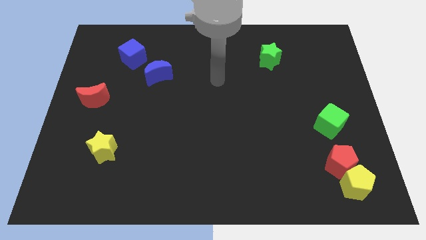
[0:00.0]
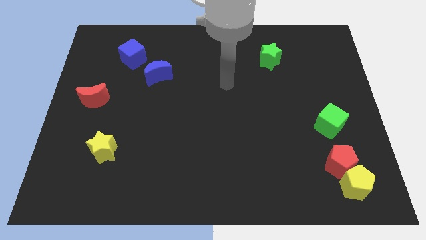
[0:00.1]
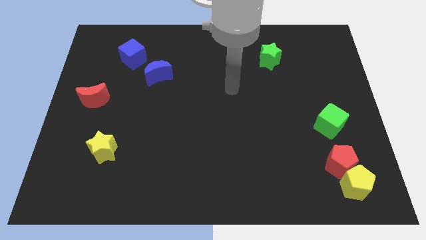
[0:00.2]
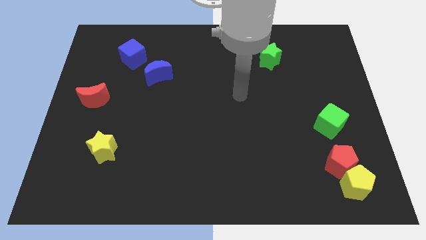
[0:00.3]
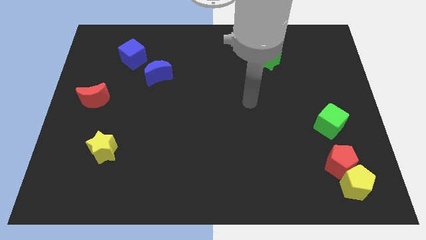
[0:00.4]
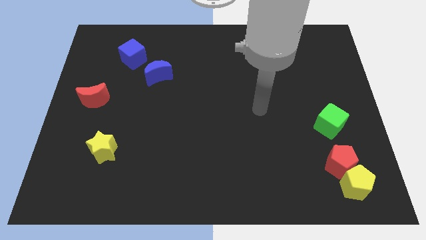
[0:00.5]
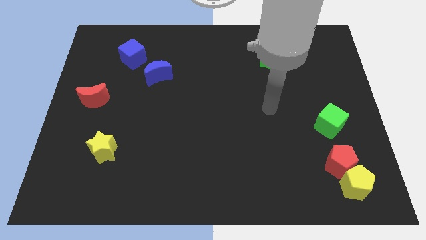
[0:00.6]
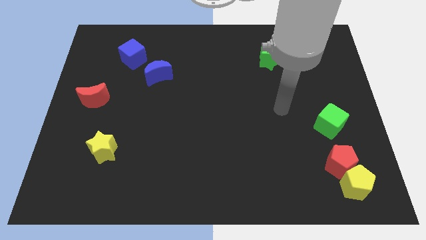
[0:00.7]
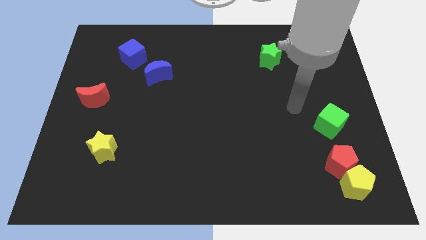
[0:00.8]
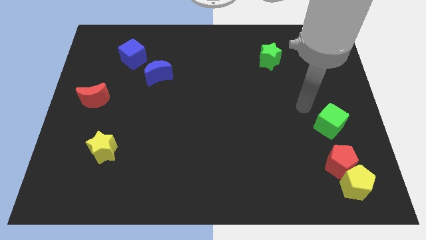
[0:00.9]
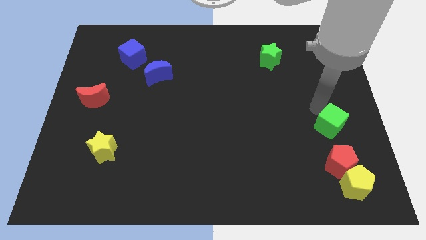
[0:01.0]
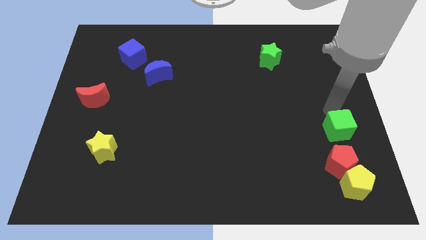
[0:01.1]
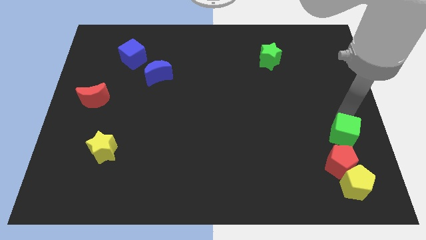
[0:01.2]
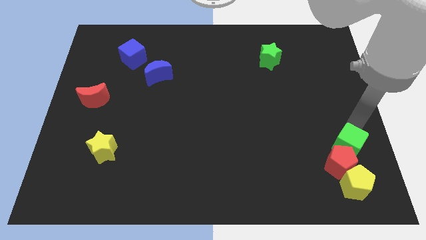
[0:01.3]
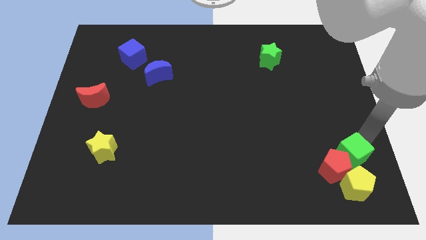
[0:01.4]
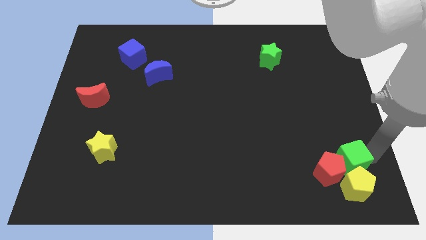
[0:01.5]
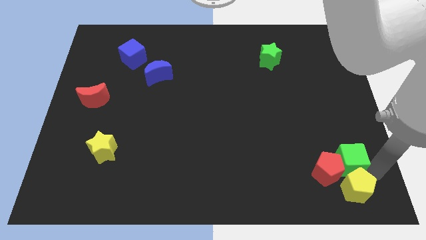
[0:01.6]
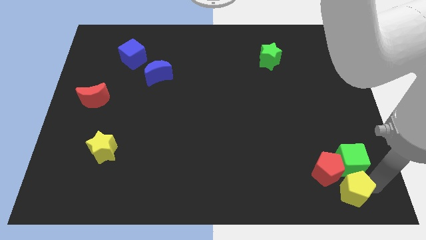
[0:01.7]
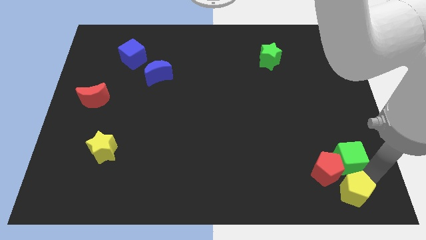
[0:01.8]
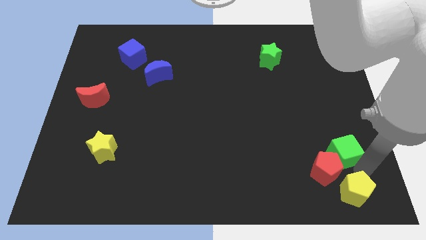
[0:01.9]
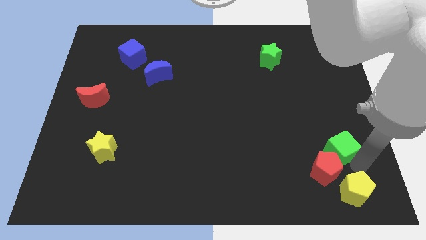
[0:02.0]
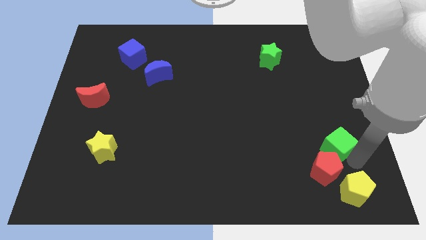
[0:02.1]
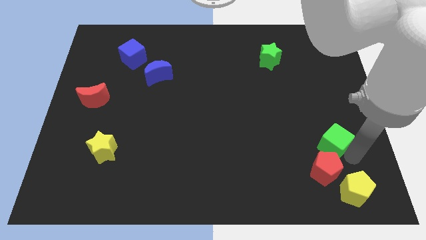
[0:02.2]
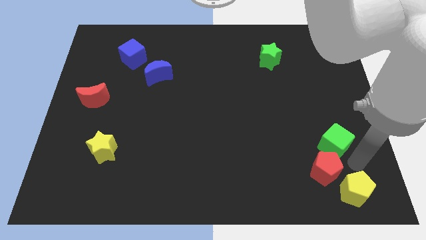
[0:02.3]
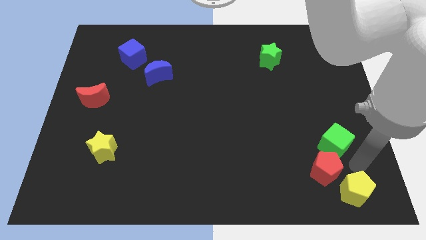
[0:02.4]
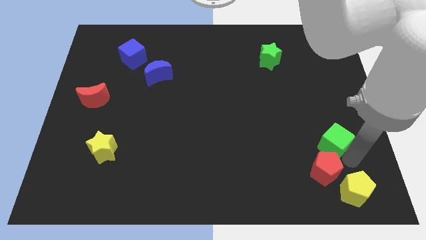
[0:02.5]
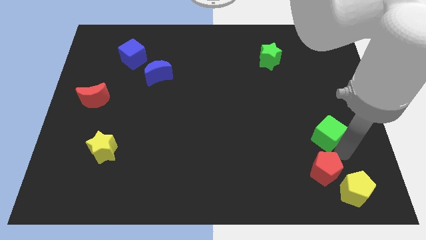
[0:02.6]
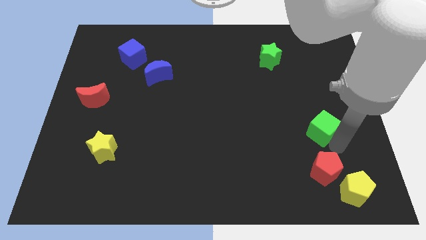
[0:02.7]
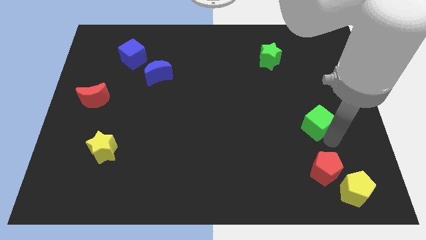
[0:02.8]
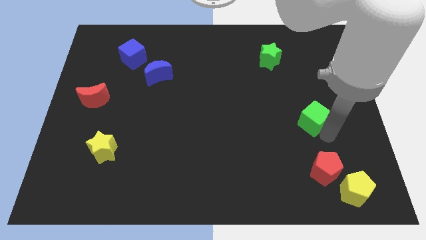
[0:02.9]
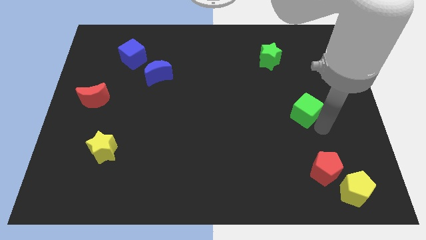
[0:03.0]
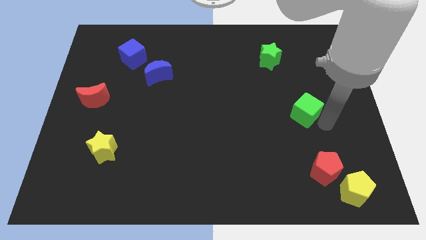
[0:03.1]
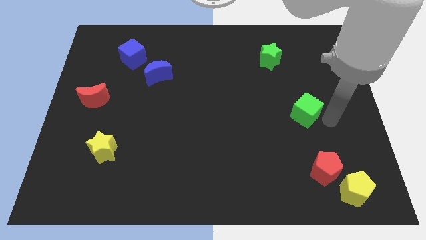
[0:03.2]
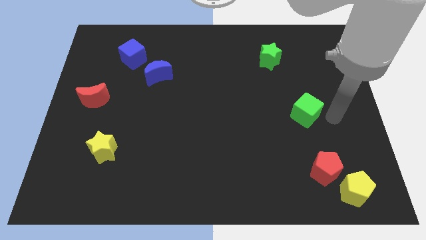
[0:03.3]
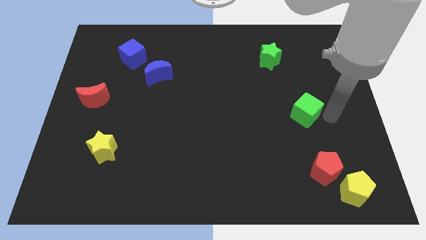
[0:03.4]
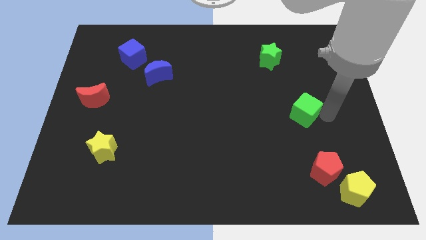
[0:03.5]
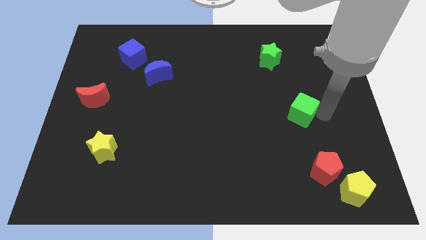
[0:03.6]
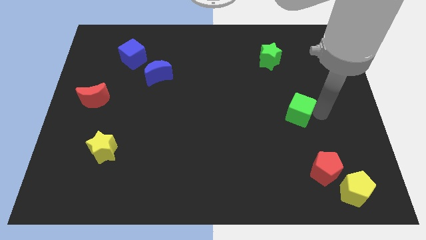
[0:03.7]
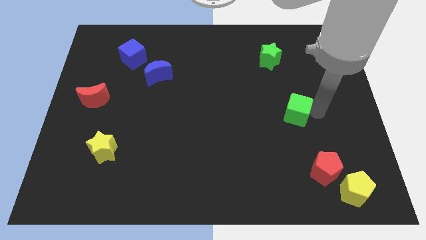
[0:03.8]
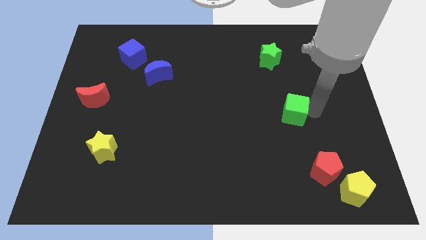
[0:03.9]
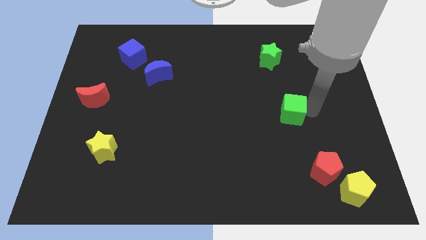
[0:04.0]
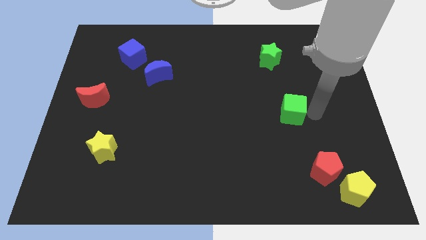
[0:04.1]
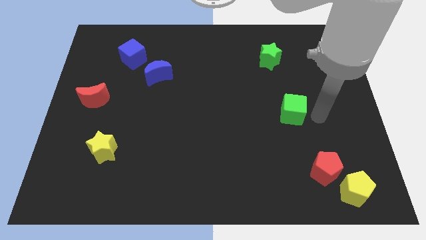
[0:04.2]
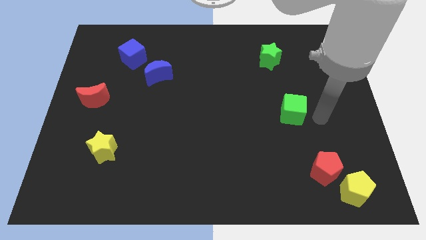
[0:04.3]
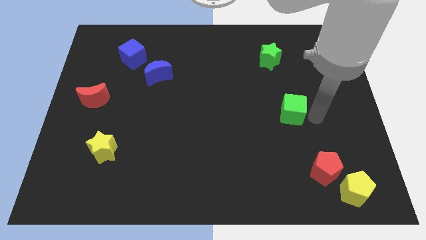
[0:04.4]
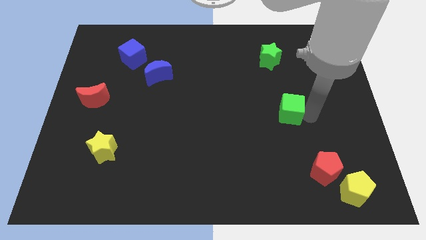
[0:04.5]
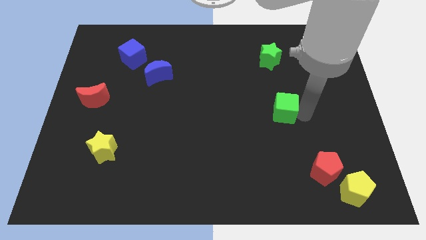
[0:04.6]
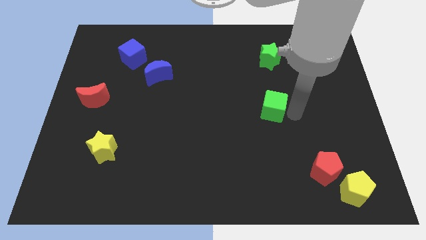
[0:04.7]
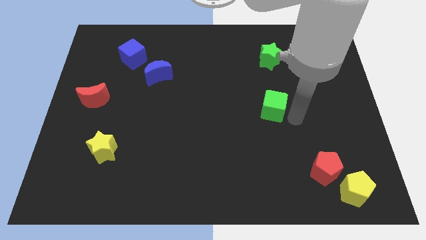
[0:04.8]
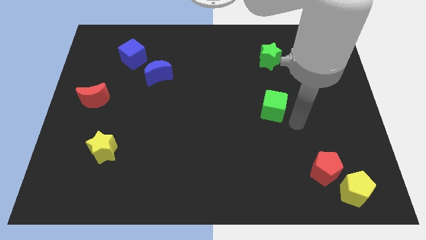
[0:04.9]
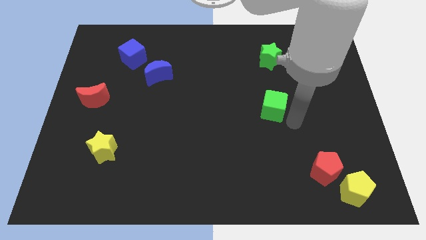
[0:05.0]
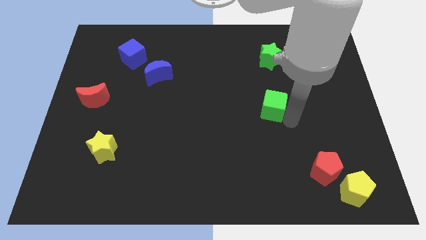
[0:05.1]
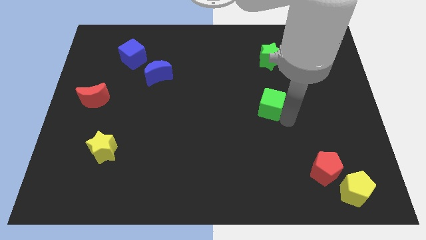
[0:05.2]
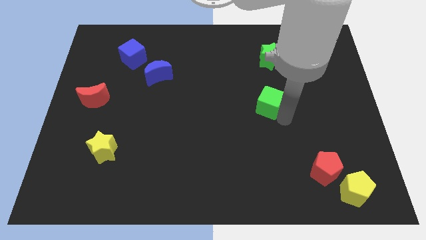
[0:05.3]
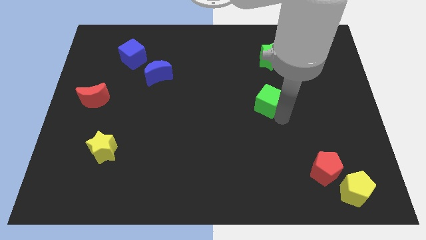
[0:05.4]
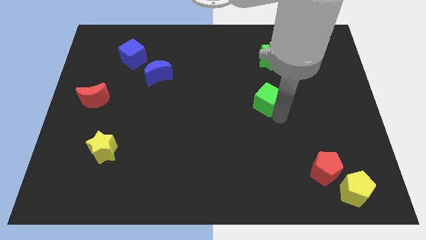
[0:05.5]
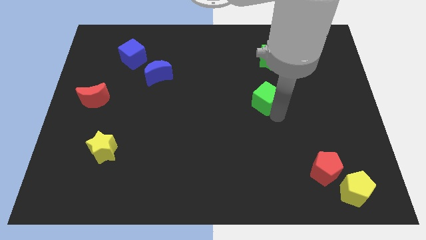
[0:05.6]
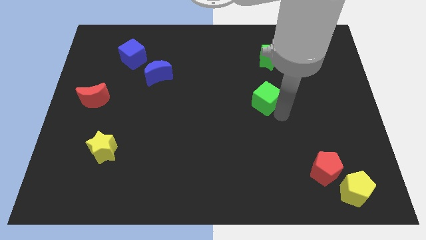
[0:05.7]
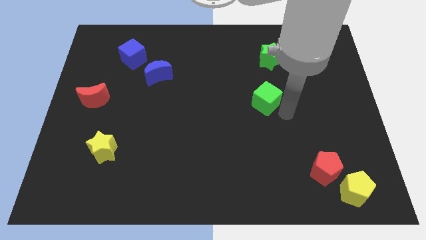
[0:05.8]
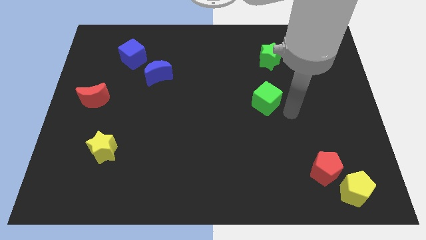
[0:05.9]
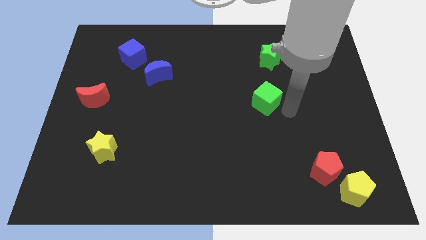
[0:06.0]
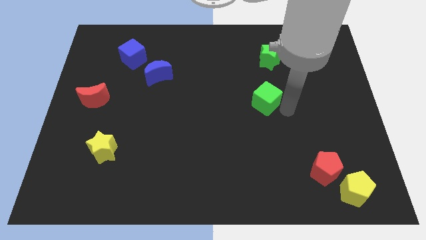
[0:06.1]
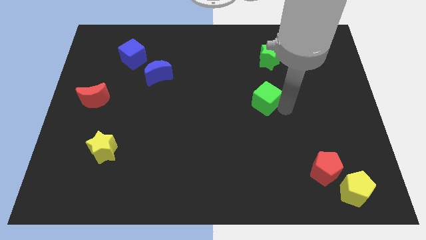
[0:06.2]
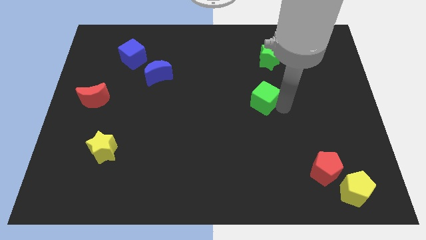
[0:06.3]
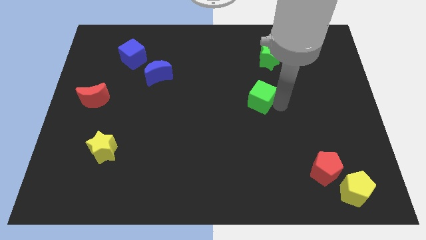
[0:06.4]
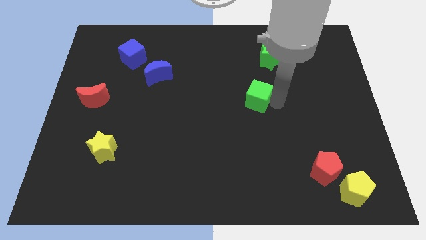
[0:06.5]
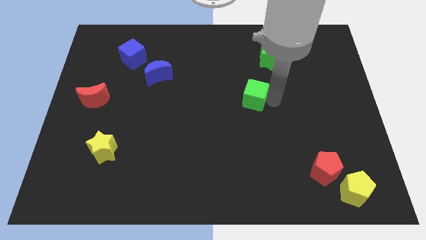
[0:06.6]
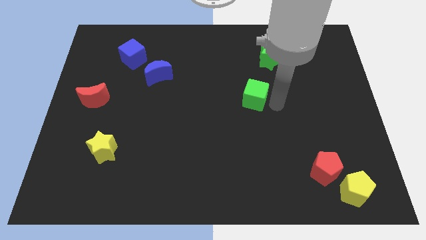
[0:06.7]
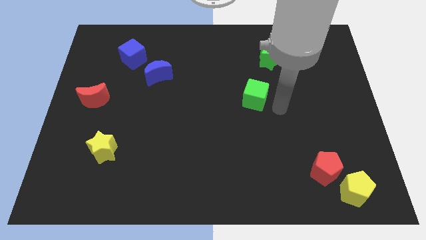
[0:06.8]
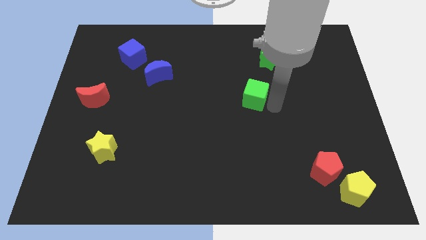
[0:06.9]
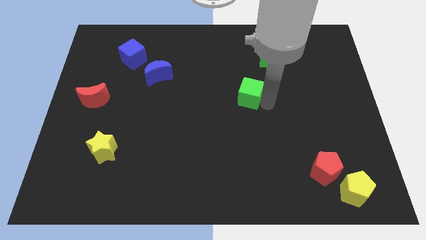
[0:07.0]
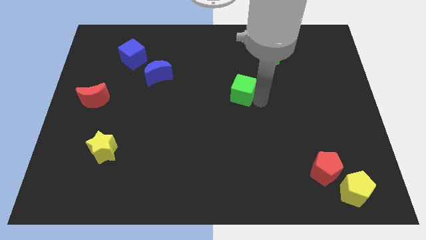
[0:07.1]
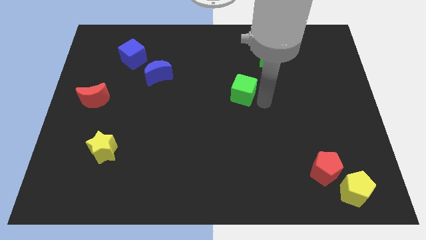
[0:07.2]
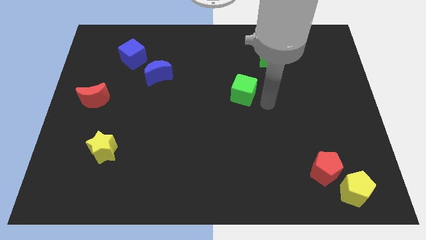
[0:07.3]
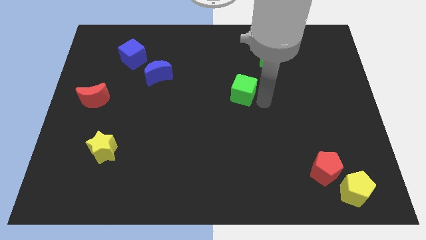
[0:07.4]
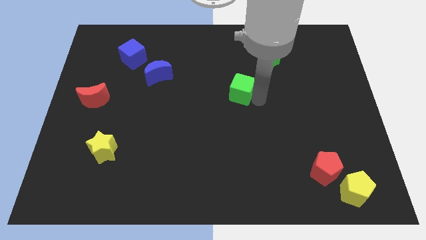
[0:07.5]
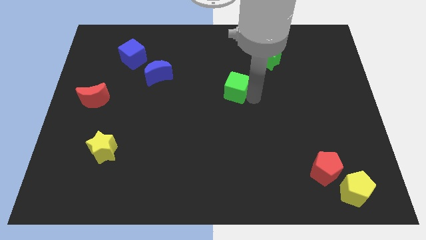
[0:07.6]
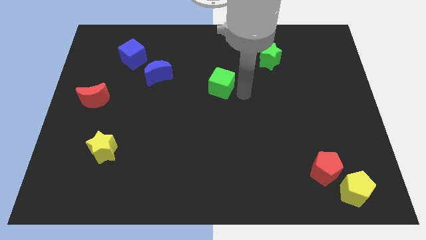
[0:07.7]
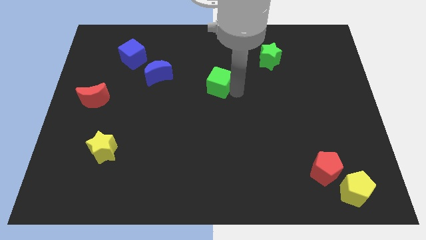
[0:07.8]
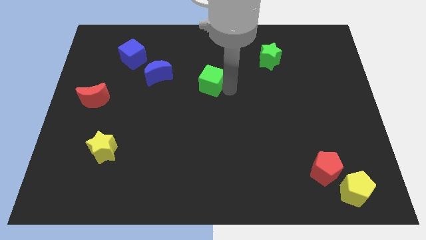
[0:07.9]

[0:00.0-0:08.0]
push the green cube to the right side of the blue moon
